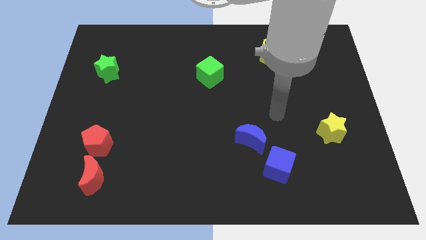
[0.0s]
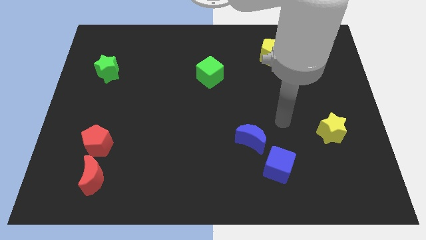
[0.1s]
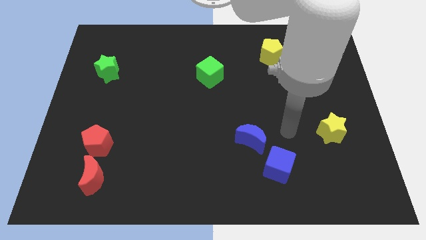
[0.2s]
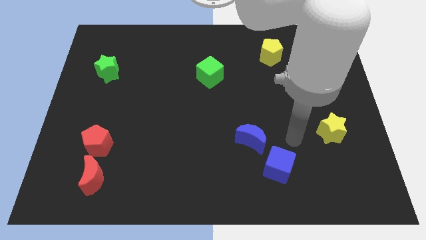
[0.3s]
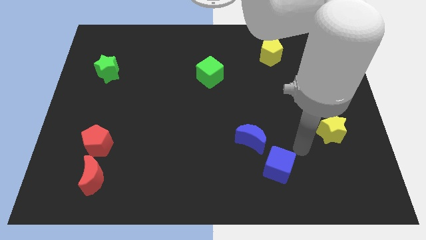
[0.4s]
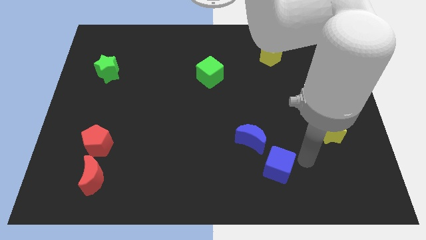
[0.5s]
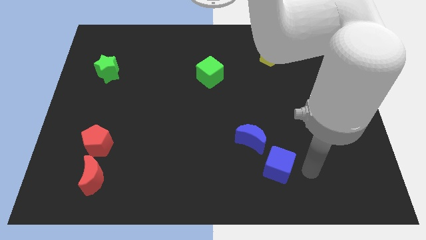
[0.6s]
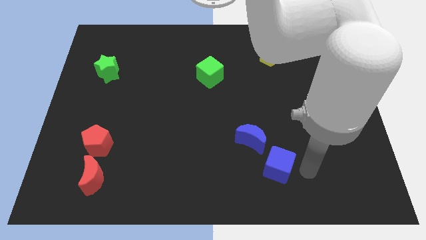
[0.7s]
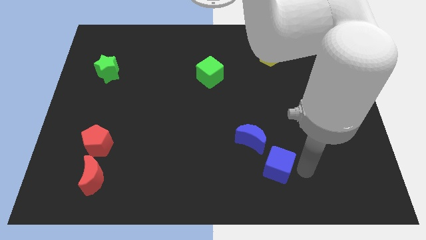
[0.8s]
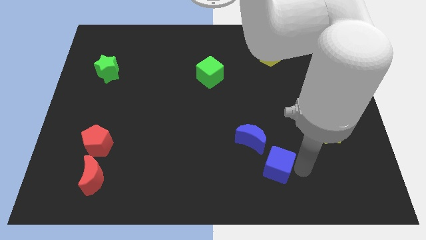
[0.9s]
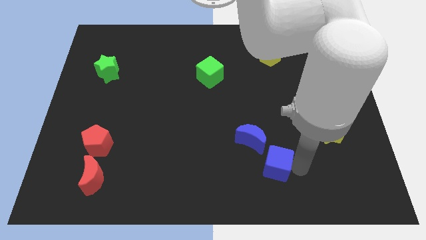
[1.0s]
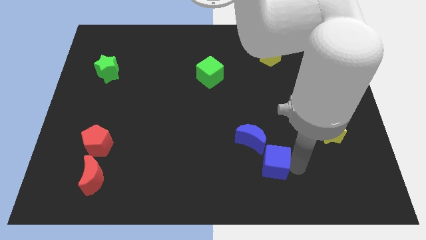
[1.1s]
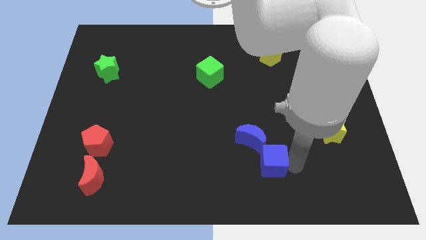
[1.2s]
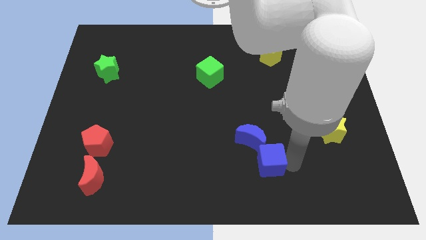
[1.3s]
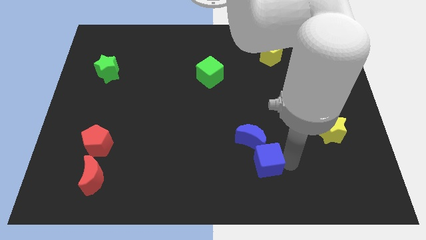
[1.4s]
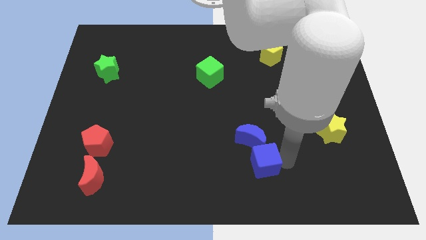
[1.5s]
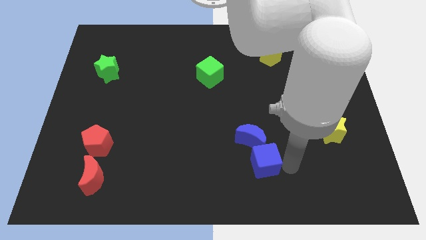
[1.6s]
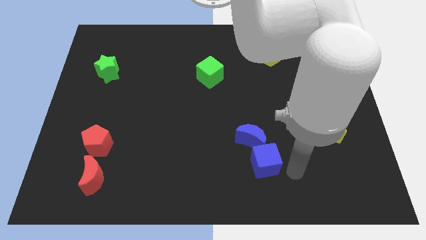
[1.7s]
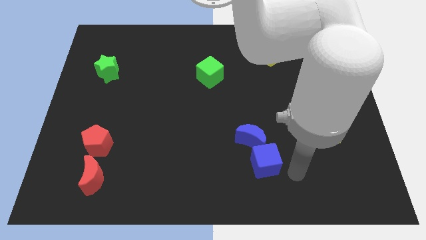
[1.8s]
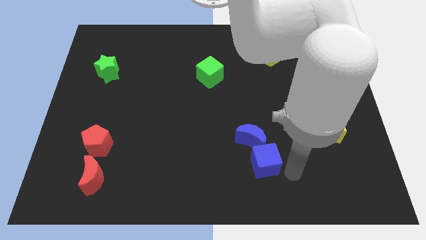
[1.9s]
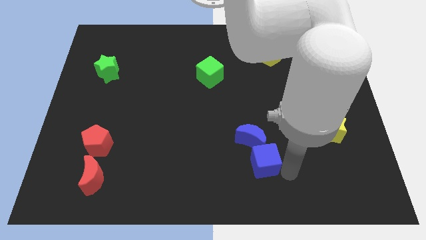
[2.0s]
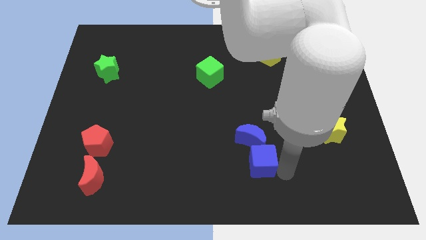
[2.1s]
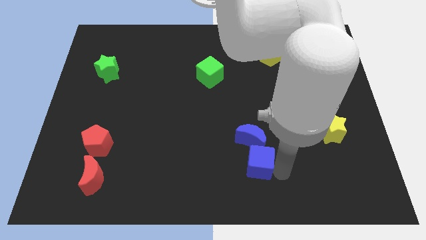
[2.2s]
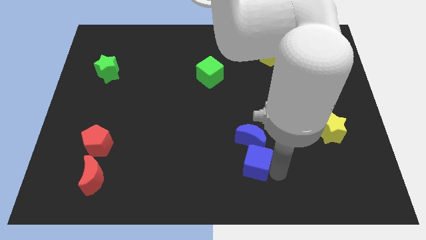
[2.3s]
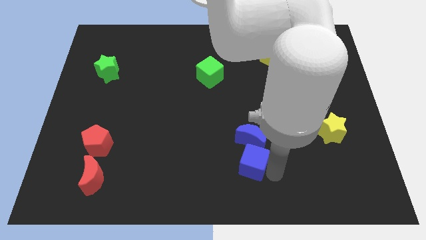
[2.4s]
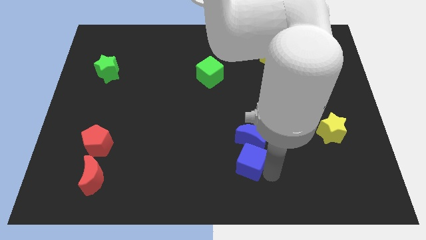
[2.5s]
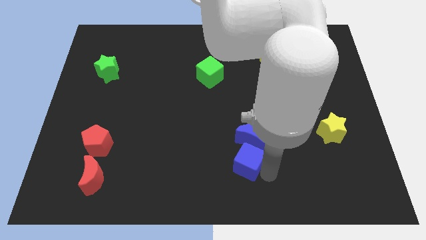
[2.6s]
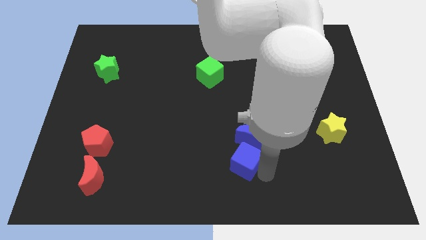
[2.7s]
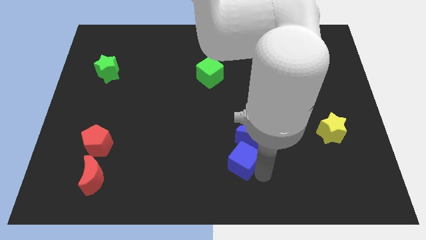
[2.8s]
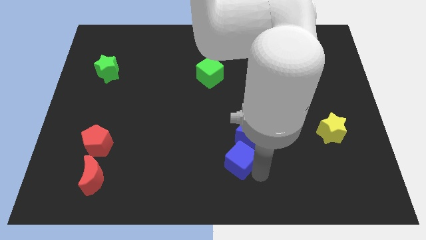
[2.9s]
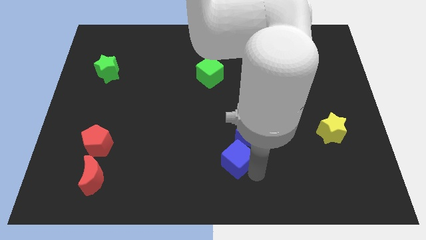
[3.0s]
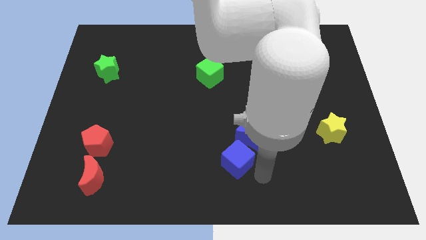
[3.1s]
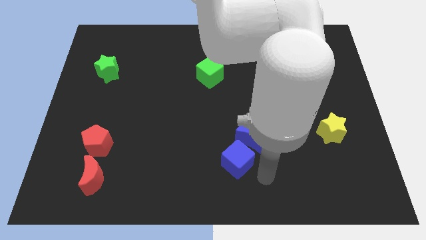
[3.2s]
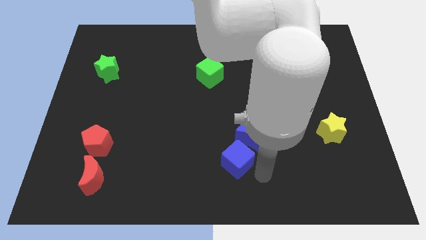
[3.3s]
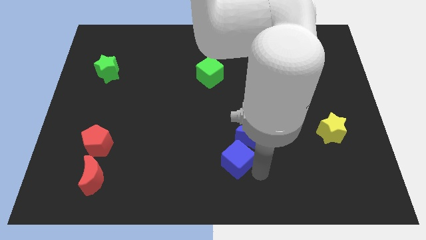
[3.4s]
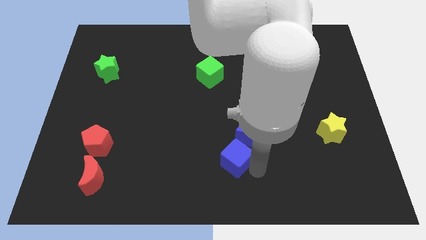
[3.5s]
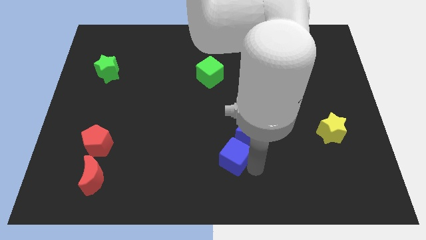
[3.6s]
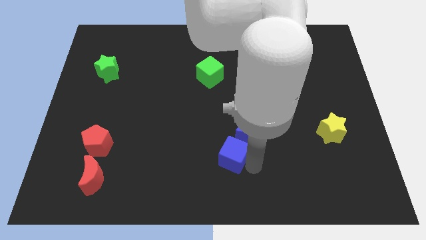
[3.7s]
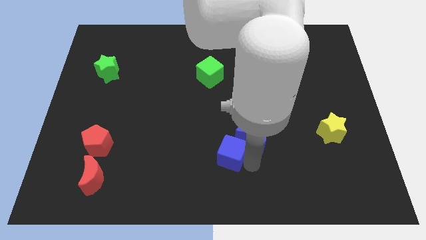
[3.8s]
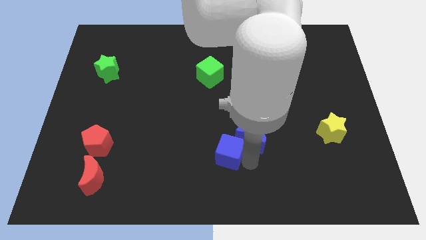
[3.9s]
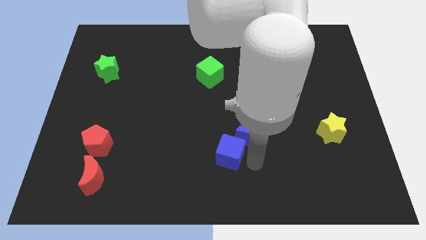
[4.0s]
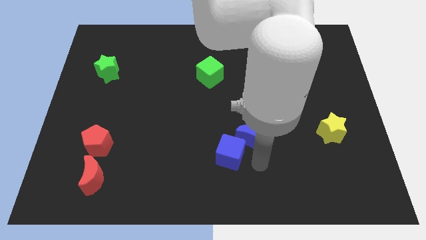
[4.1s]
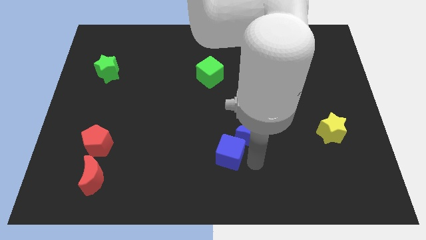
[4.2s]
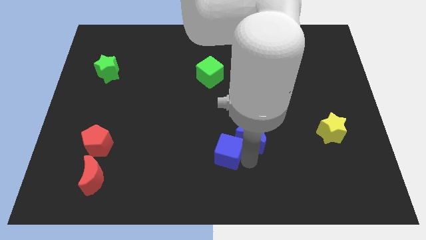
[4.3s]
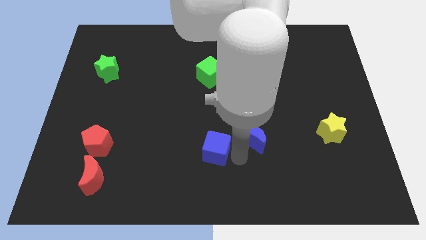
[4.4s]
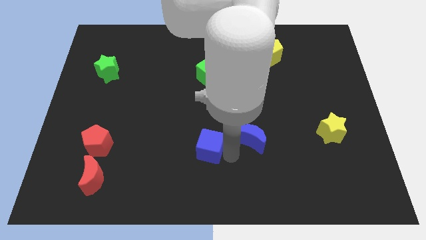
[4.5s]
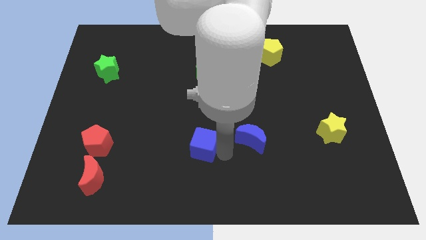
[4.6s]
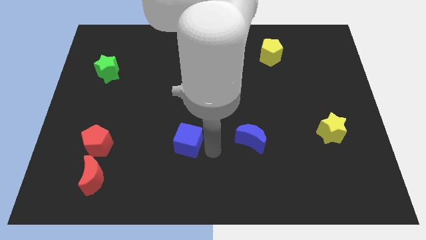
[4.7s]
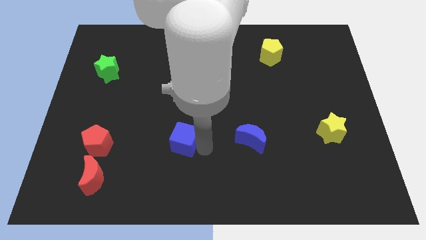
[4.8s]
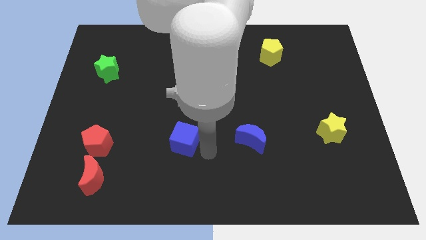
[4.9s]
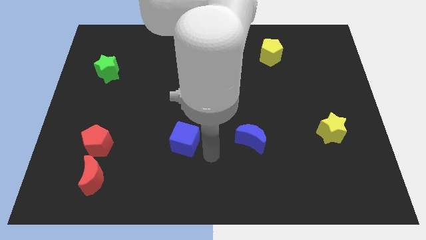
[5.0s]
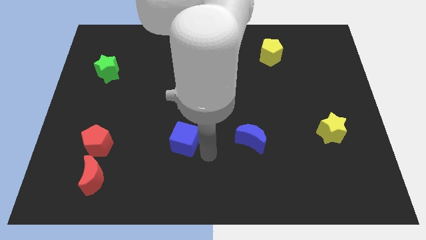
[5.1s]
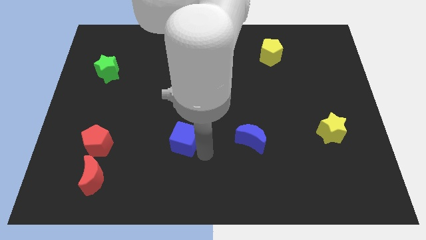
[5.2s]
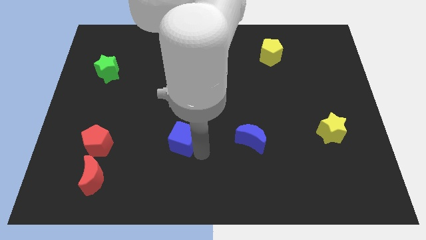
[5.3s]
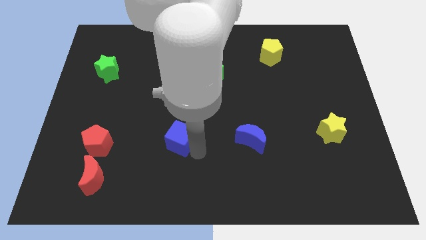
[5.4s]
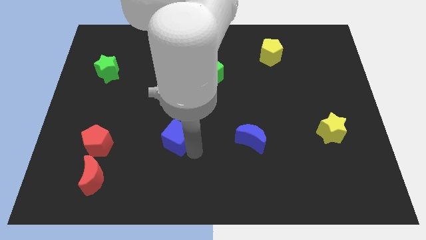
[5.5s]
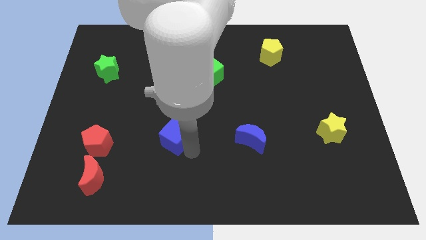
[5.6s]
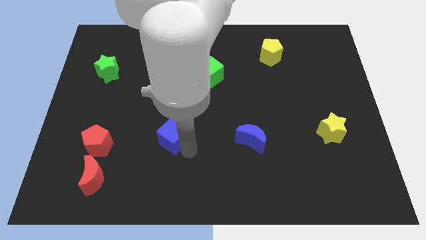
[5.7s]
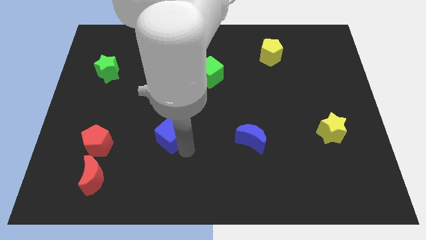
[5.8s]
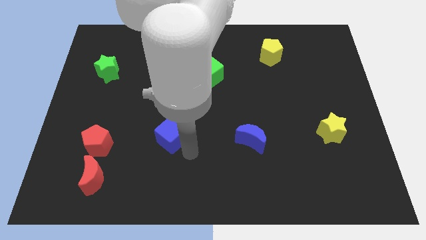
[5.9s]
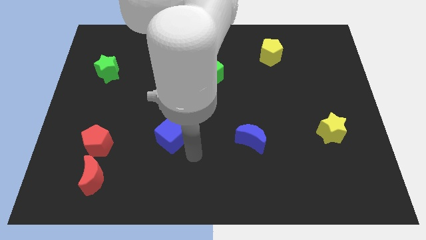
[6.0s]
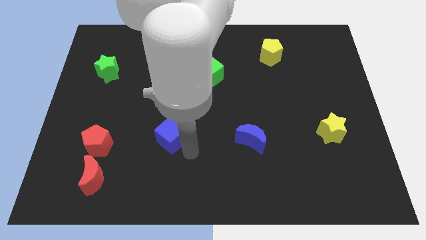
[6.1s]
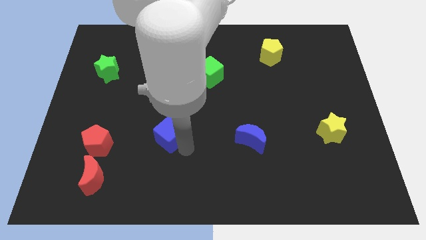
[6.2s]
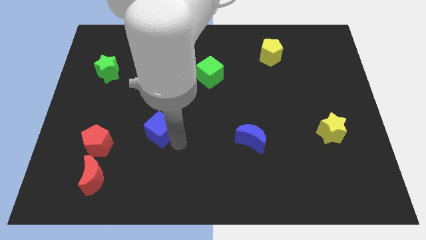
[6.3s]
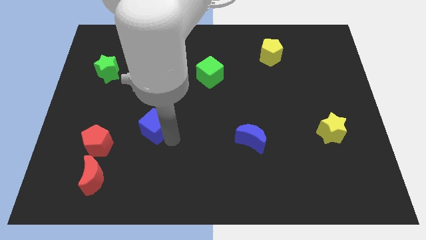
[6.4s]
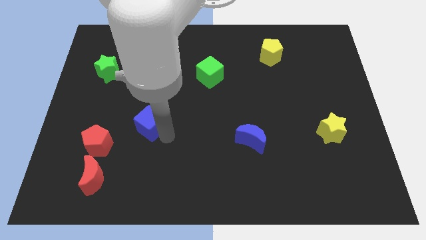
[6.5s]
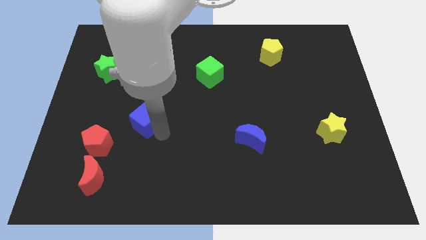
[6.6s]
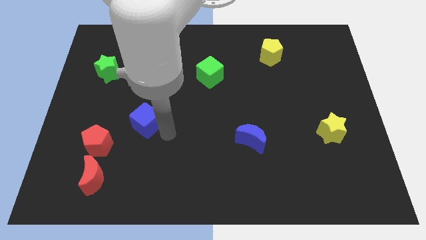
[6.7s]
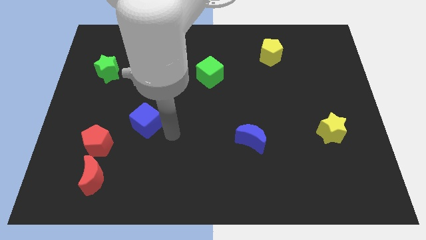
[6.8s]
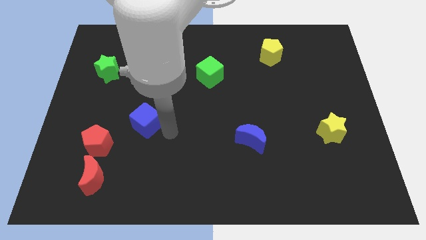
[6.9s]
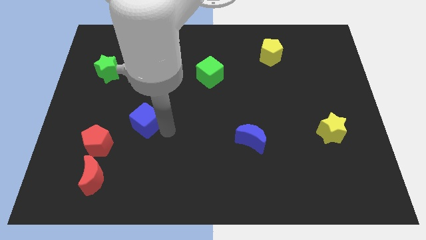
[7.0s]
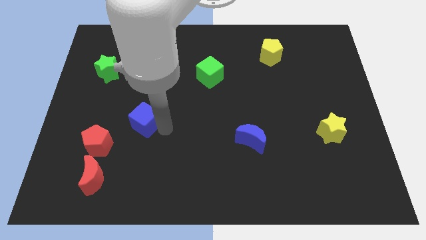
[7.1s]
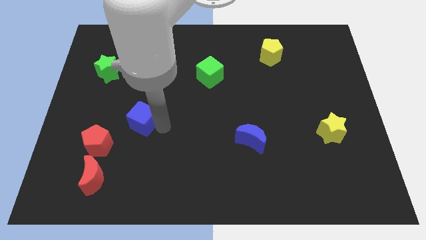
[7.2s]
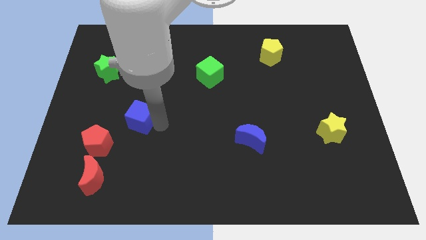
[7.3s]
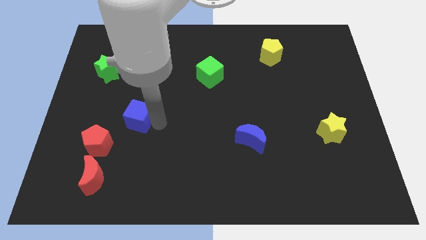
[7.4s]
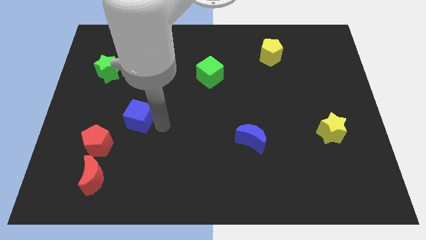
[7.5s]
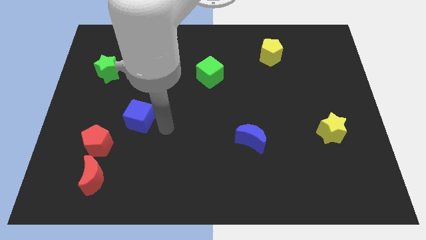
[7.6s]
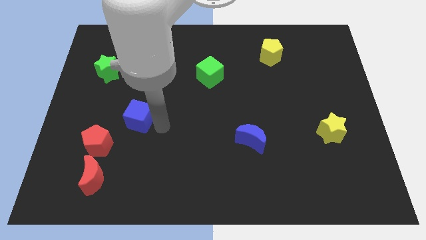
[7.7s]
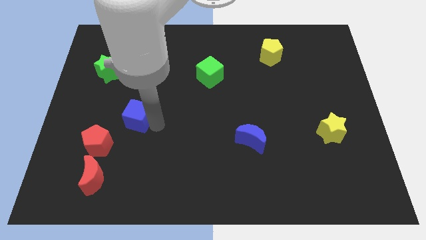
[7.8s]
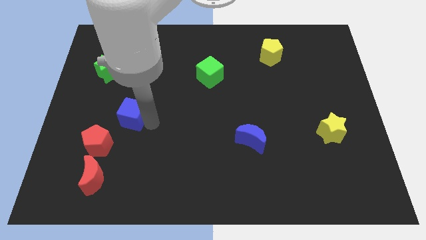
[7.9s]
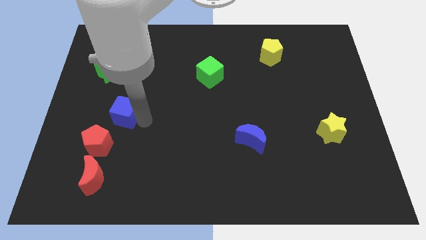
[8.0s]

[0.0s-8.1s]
move the blue cube to the top of the red pentagon
